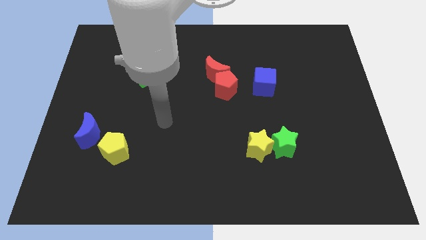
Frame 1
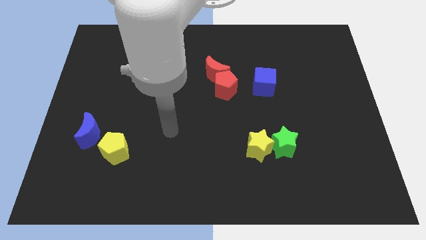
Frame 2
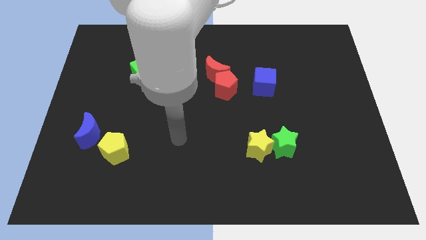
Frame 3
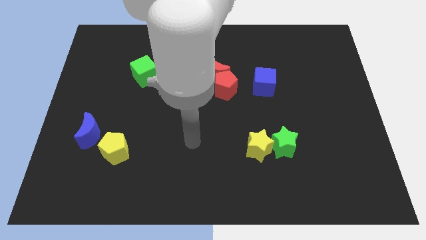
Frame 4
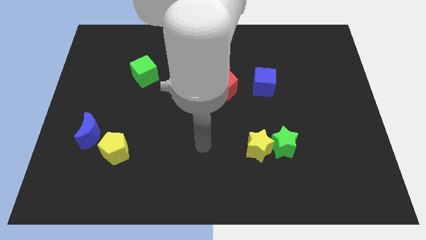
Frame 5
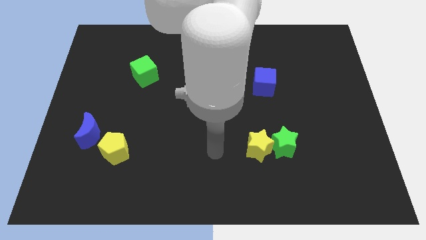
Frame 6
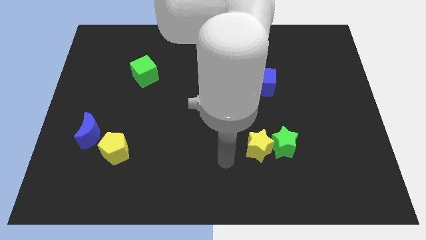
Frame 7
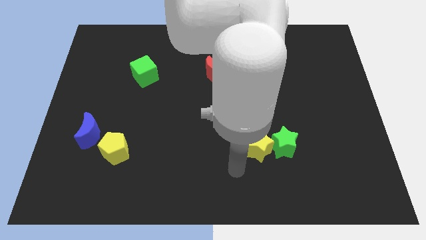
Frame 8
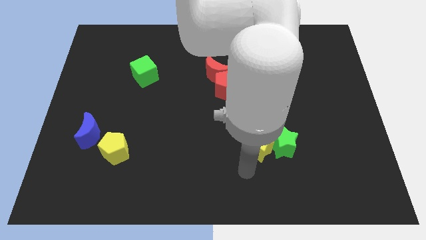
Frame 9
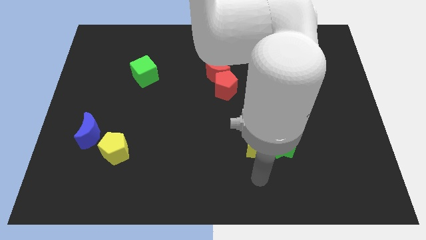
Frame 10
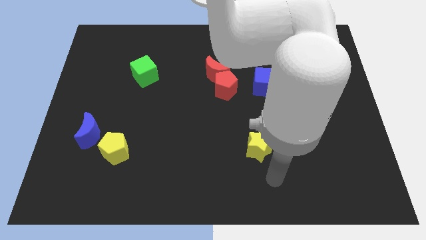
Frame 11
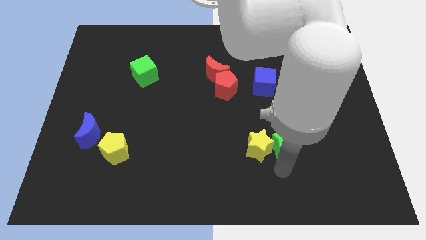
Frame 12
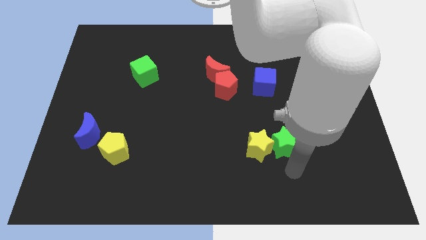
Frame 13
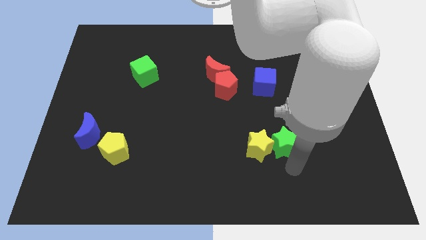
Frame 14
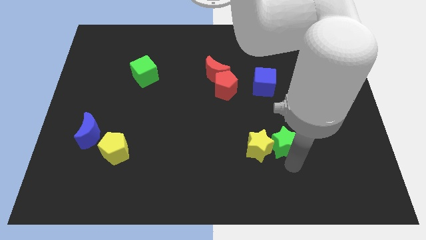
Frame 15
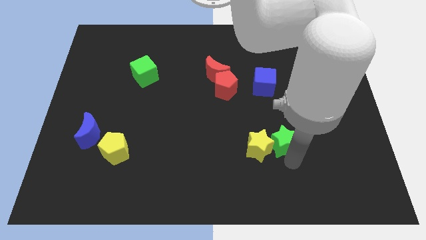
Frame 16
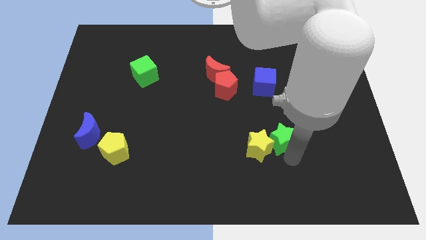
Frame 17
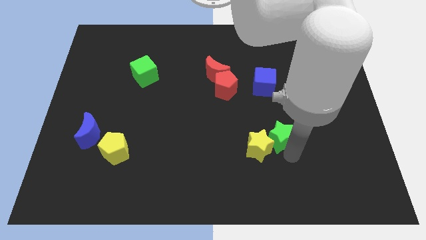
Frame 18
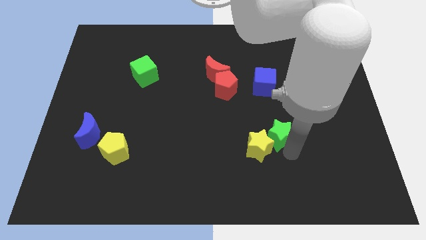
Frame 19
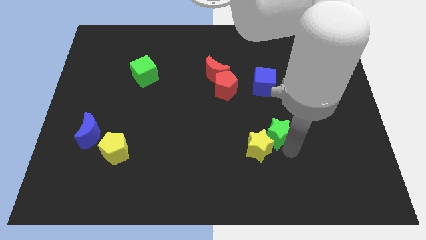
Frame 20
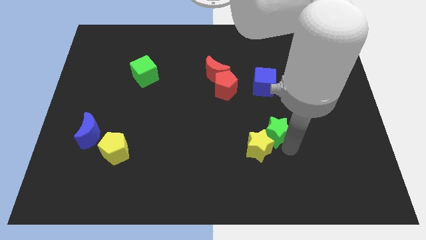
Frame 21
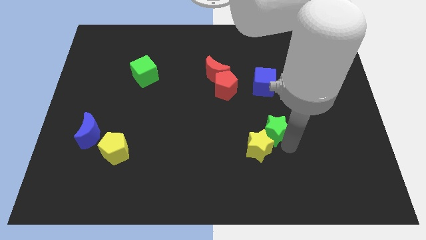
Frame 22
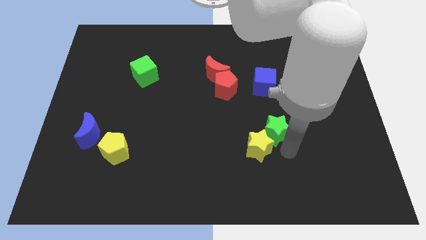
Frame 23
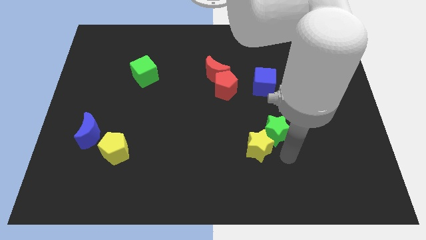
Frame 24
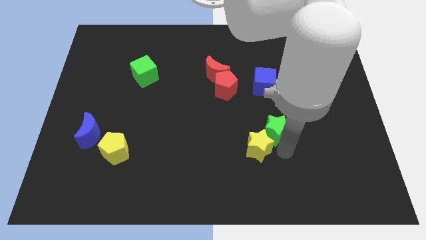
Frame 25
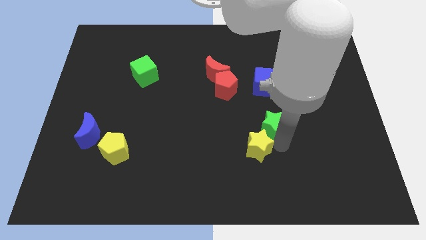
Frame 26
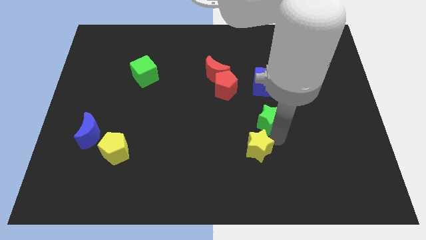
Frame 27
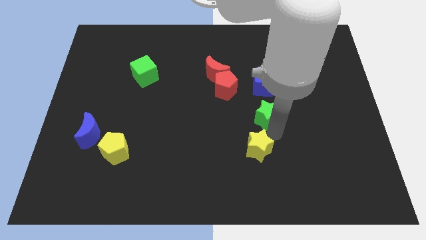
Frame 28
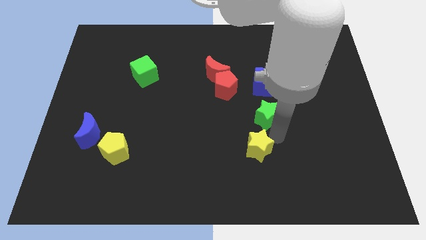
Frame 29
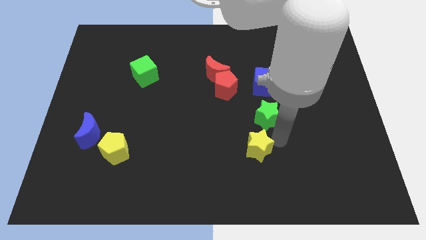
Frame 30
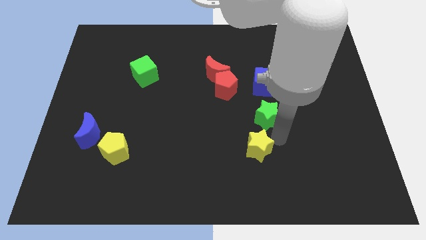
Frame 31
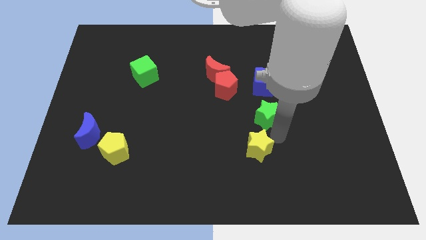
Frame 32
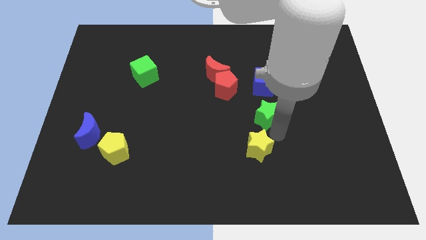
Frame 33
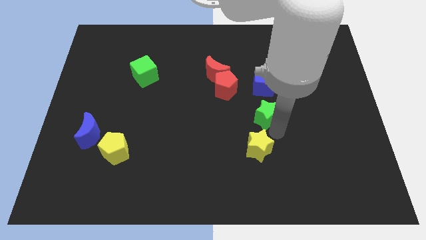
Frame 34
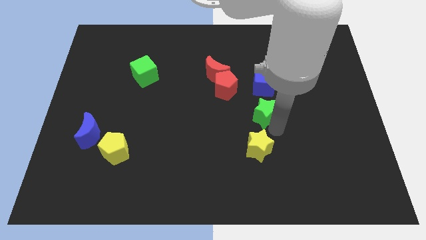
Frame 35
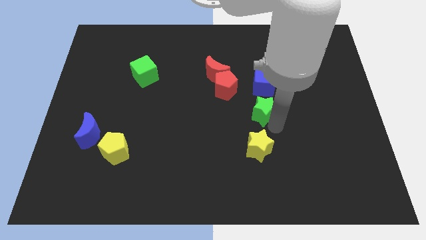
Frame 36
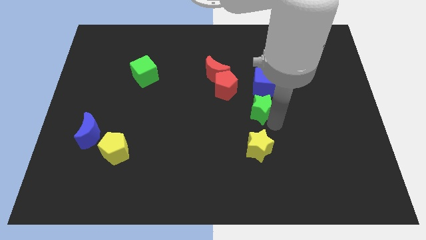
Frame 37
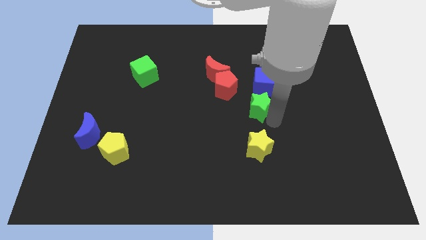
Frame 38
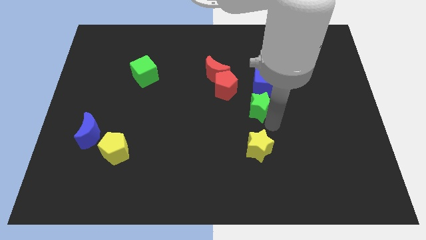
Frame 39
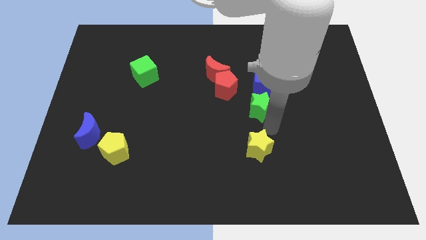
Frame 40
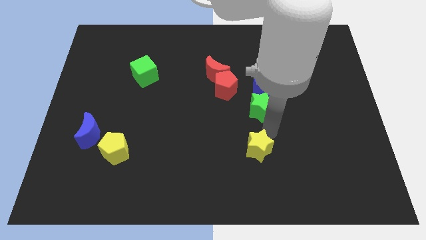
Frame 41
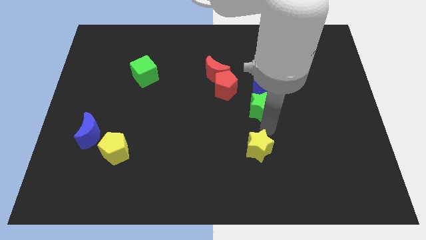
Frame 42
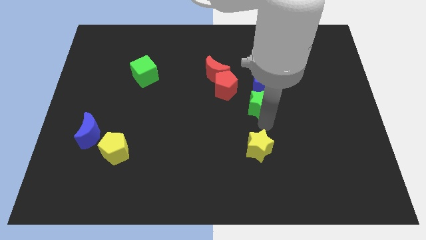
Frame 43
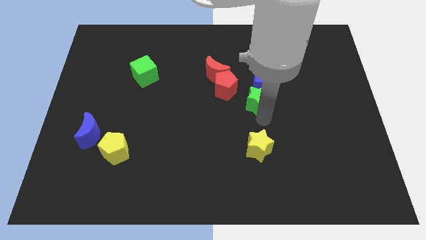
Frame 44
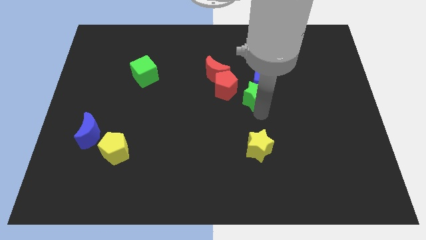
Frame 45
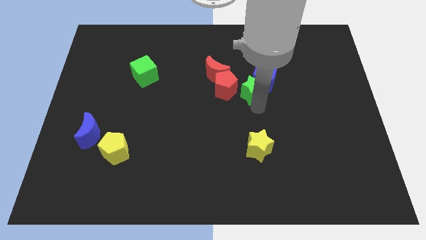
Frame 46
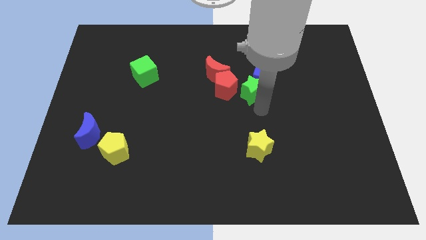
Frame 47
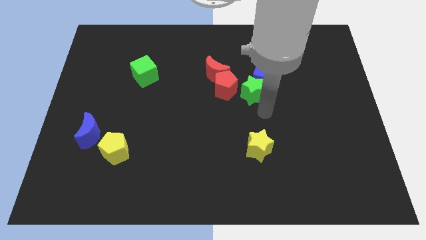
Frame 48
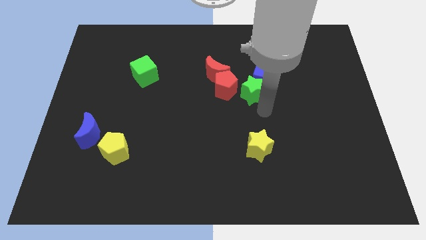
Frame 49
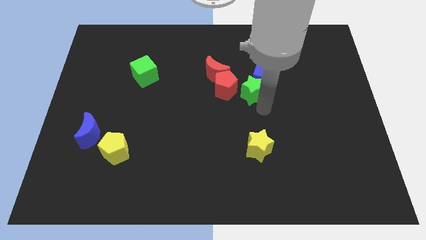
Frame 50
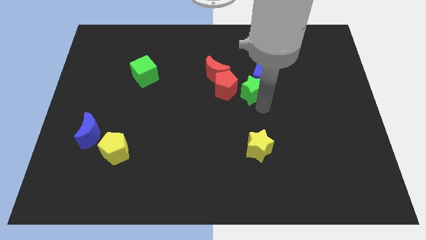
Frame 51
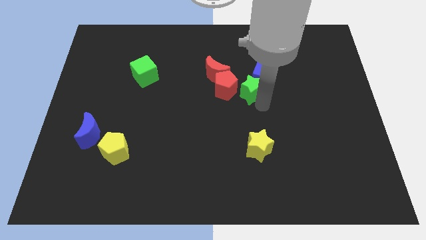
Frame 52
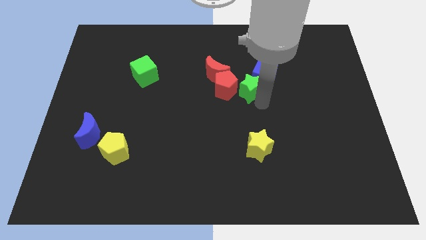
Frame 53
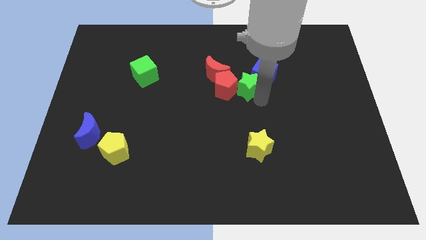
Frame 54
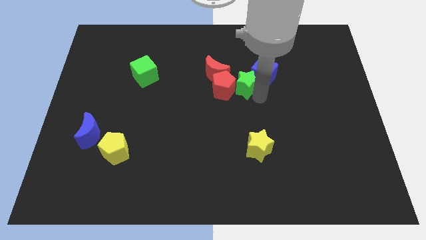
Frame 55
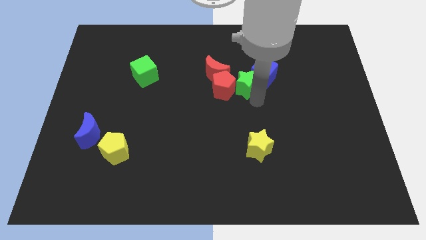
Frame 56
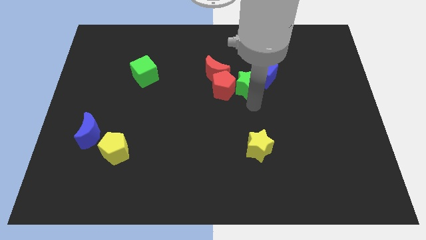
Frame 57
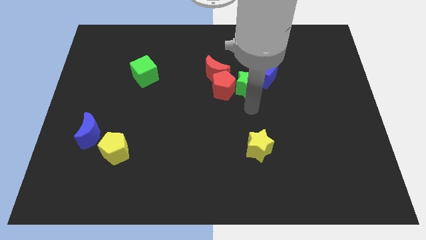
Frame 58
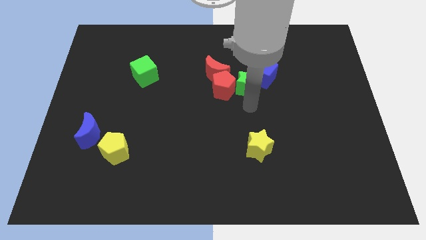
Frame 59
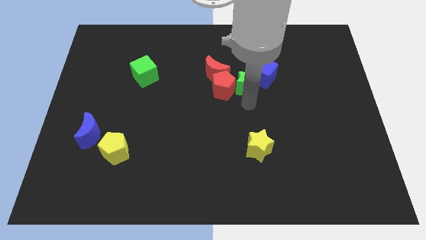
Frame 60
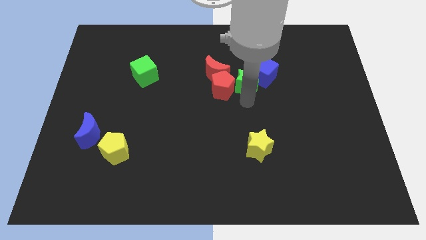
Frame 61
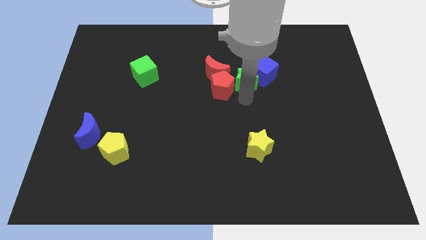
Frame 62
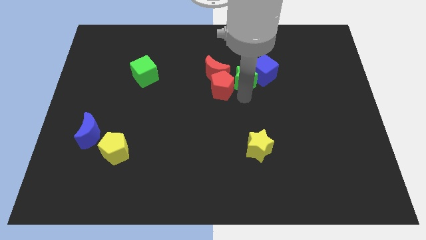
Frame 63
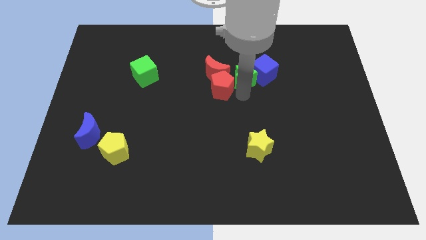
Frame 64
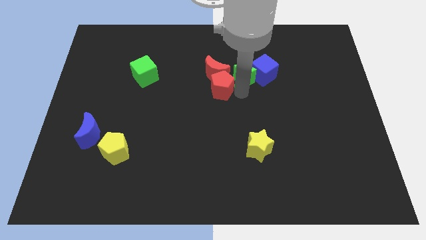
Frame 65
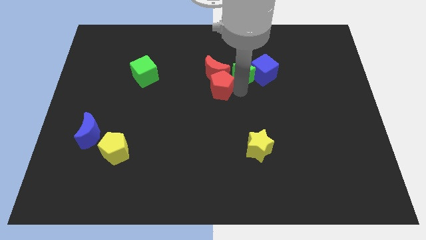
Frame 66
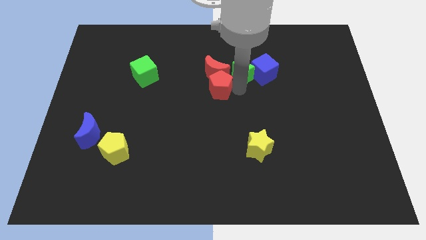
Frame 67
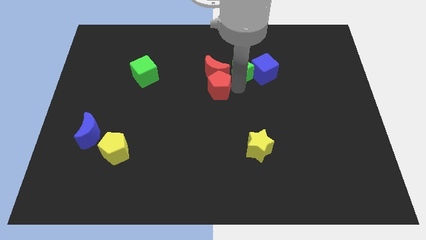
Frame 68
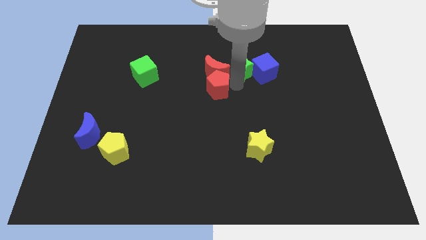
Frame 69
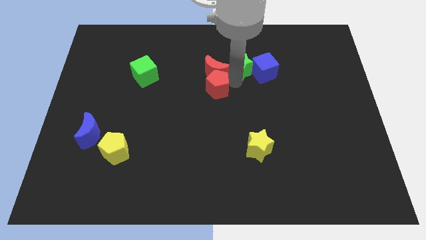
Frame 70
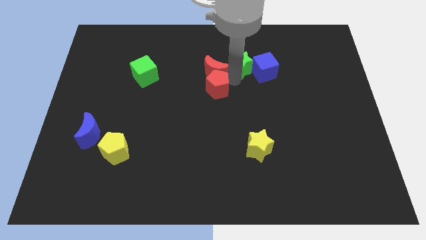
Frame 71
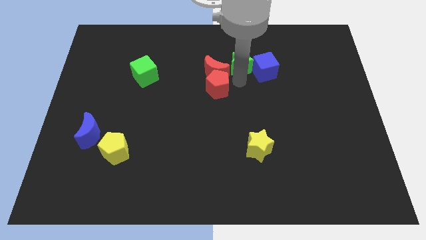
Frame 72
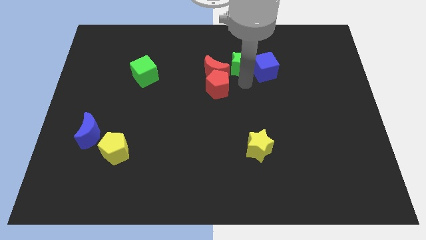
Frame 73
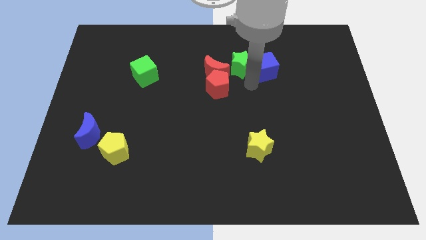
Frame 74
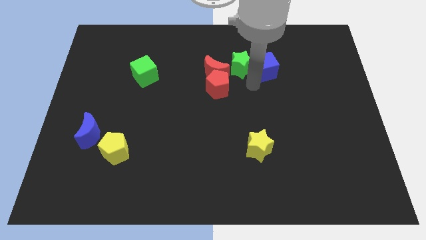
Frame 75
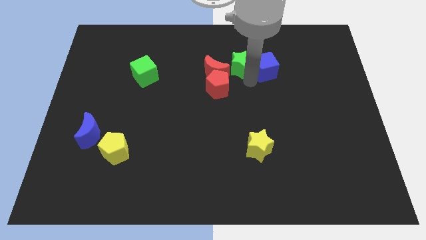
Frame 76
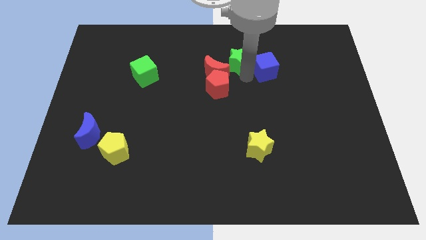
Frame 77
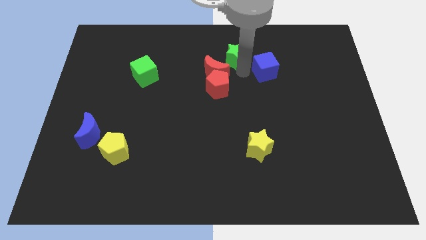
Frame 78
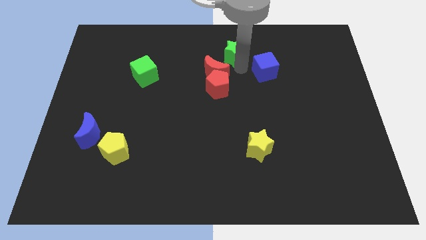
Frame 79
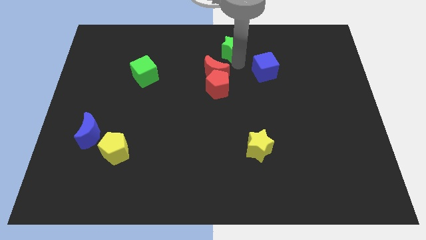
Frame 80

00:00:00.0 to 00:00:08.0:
slide the green star to the top side
